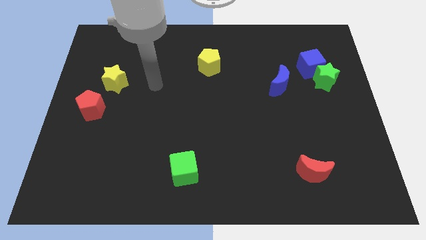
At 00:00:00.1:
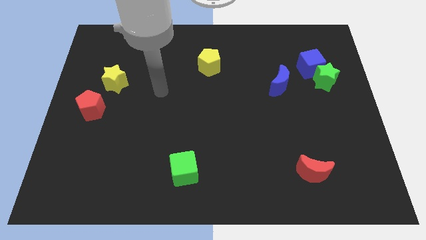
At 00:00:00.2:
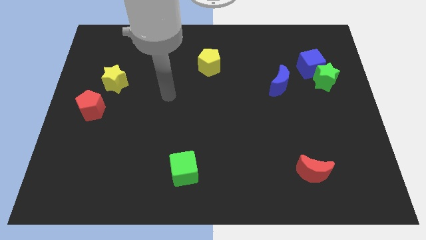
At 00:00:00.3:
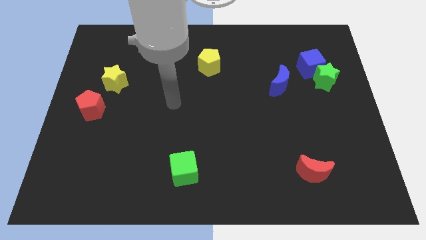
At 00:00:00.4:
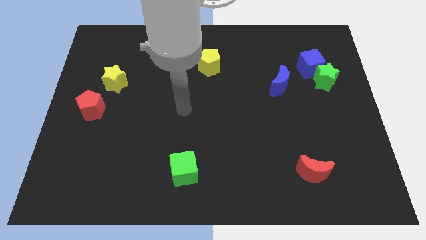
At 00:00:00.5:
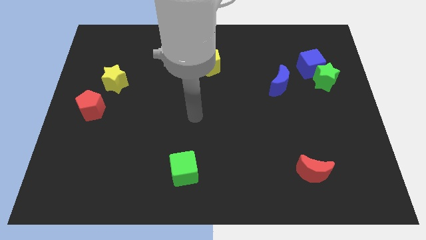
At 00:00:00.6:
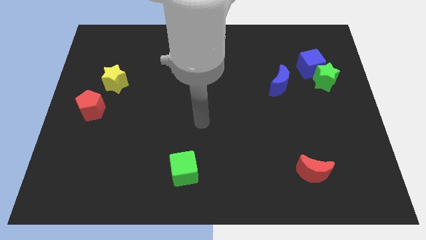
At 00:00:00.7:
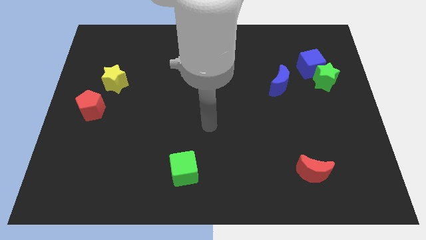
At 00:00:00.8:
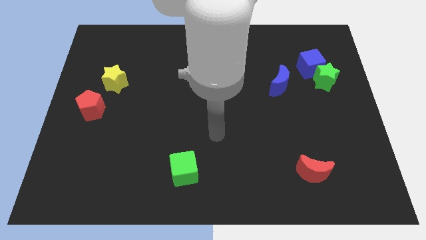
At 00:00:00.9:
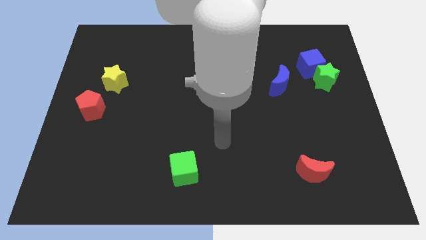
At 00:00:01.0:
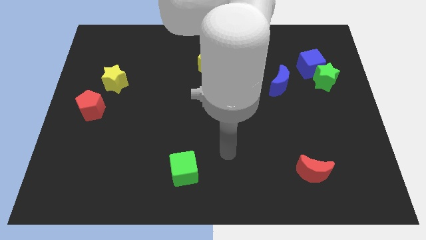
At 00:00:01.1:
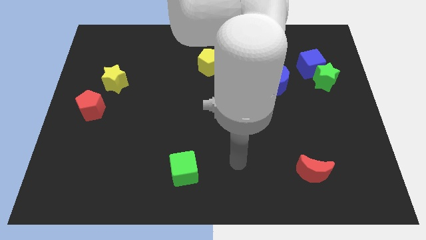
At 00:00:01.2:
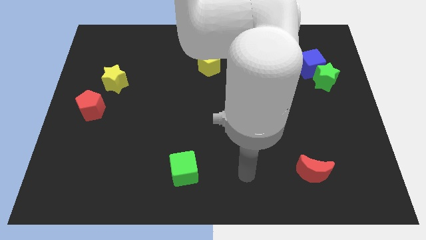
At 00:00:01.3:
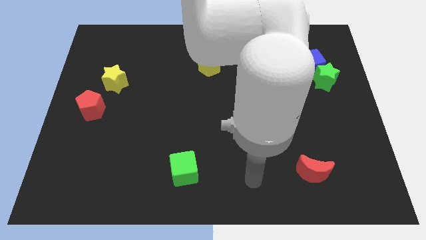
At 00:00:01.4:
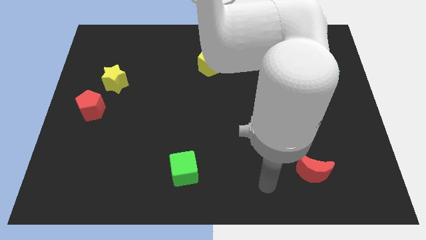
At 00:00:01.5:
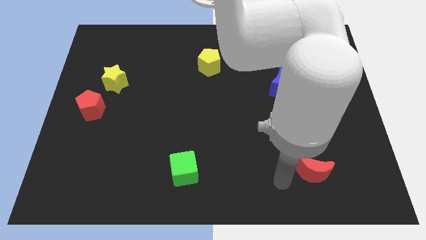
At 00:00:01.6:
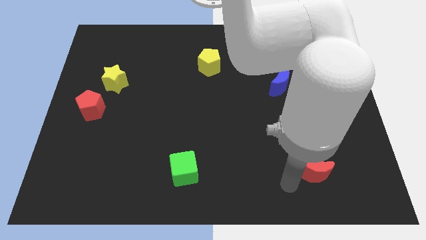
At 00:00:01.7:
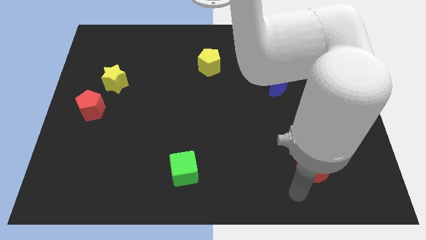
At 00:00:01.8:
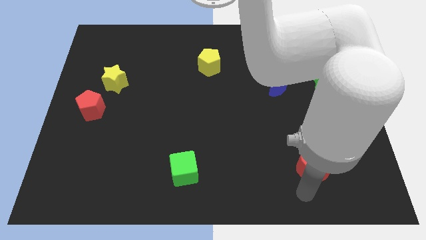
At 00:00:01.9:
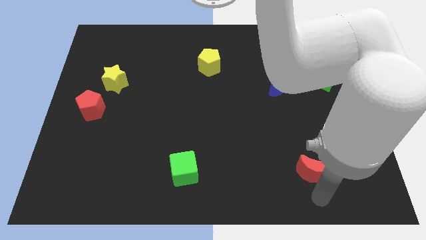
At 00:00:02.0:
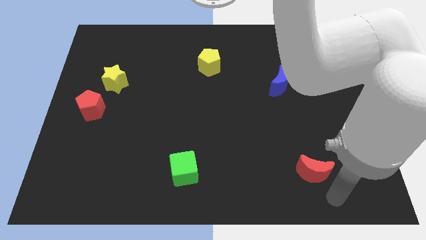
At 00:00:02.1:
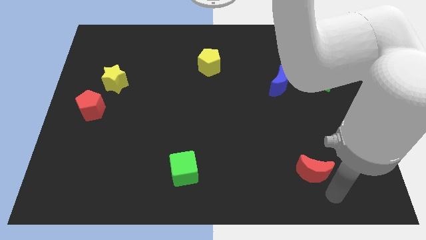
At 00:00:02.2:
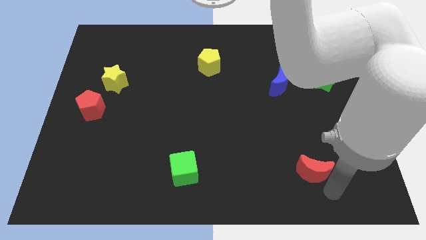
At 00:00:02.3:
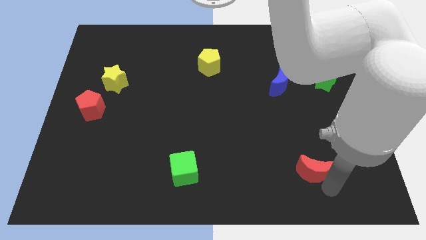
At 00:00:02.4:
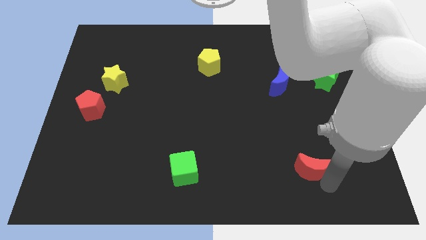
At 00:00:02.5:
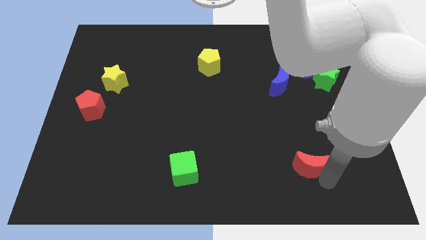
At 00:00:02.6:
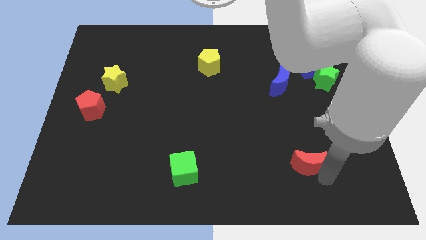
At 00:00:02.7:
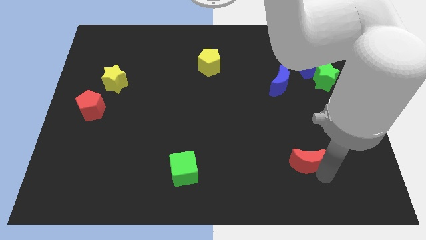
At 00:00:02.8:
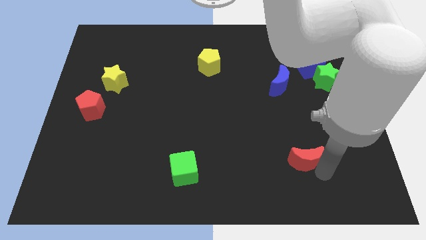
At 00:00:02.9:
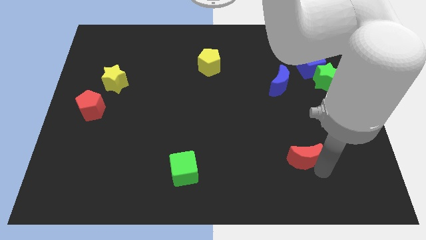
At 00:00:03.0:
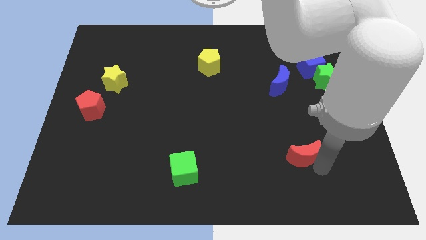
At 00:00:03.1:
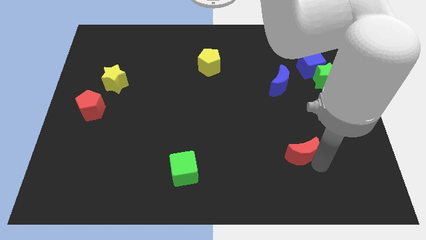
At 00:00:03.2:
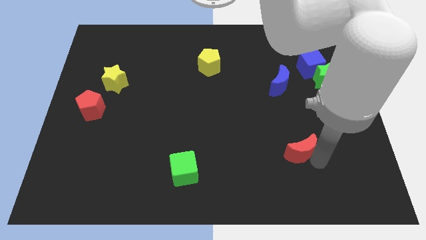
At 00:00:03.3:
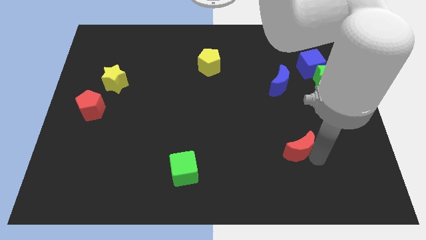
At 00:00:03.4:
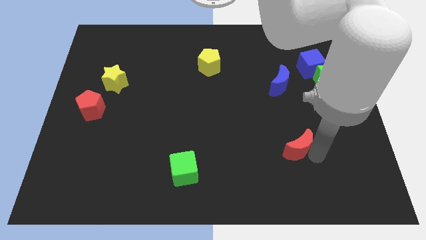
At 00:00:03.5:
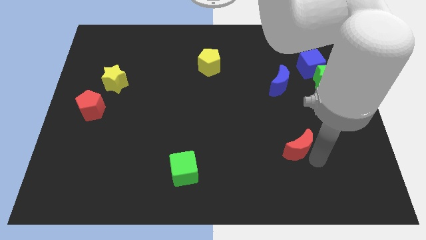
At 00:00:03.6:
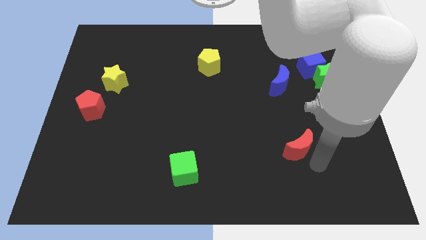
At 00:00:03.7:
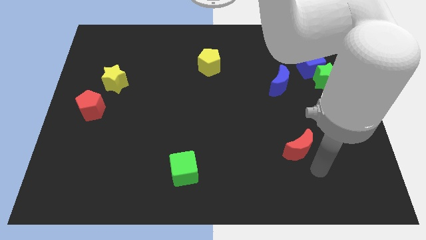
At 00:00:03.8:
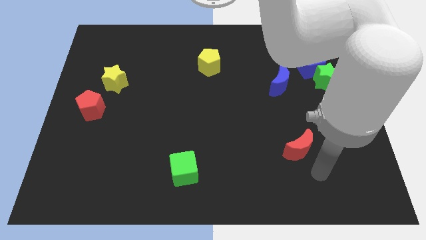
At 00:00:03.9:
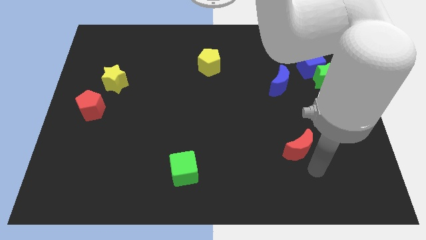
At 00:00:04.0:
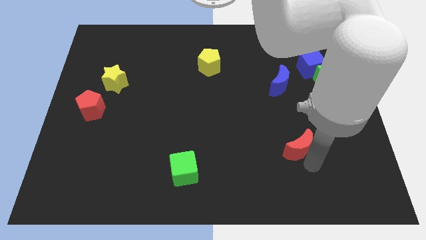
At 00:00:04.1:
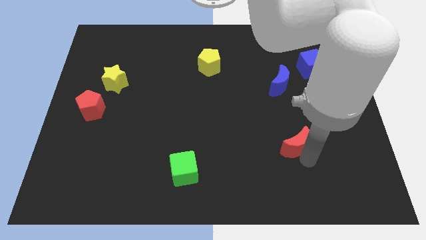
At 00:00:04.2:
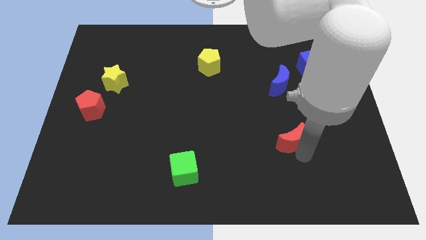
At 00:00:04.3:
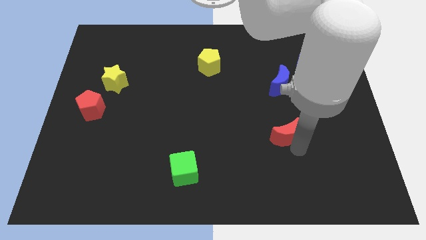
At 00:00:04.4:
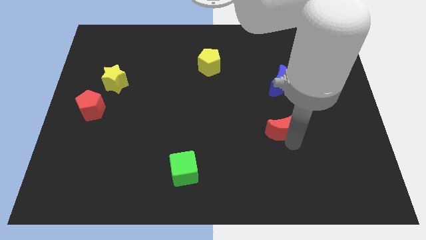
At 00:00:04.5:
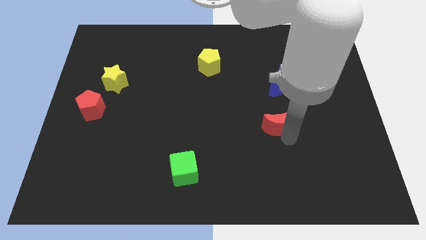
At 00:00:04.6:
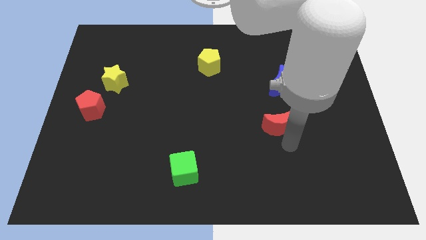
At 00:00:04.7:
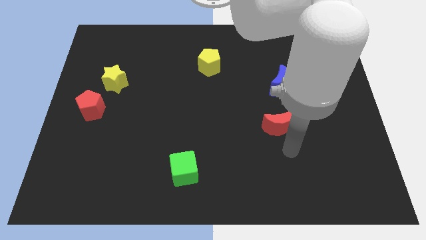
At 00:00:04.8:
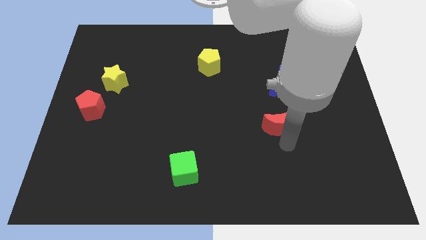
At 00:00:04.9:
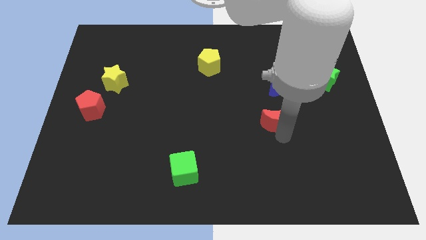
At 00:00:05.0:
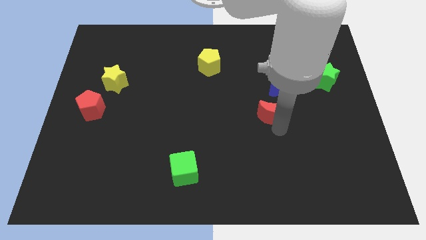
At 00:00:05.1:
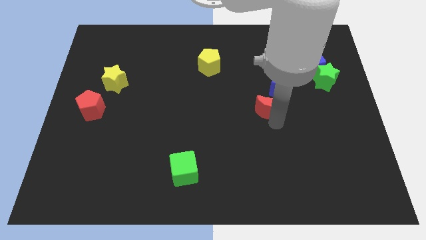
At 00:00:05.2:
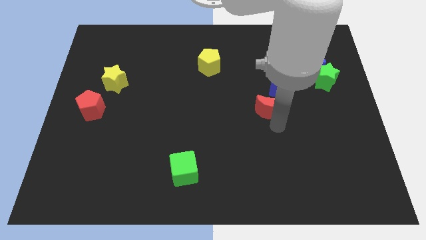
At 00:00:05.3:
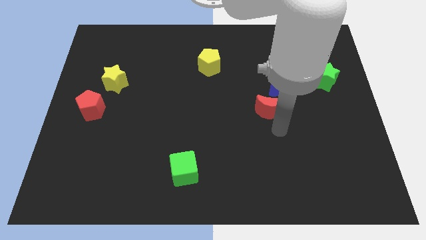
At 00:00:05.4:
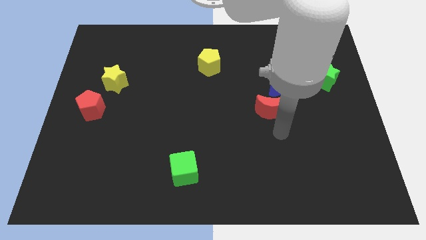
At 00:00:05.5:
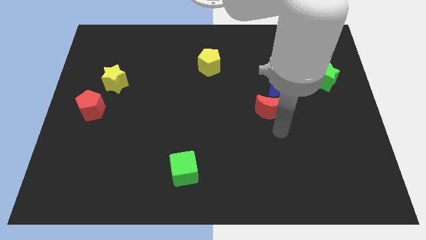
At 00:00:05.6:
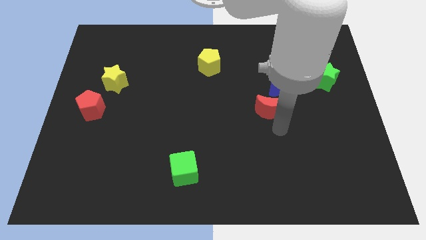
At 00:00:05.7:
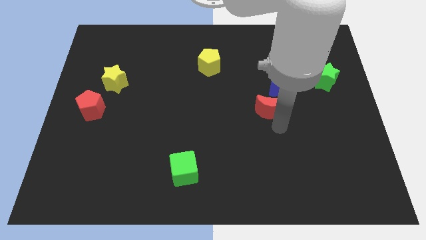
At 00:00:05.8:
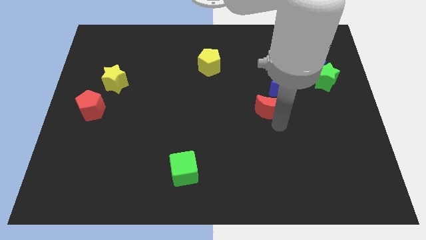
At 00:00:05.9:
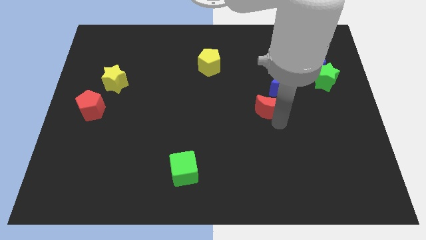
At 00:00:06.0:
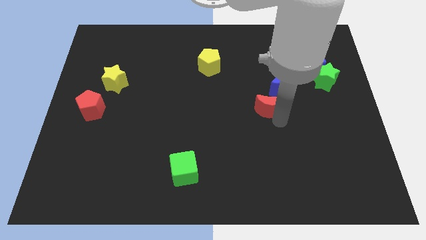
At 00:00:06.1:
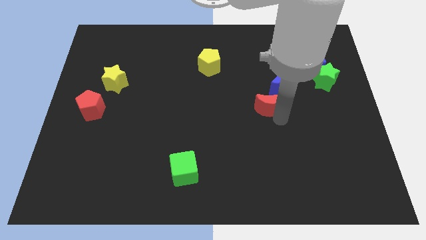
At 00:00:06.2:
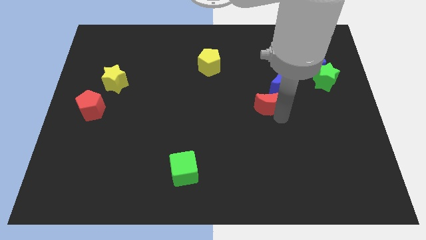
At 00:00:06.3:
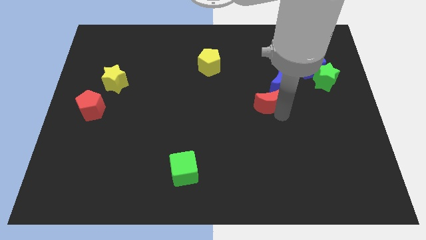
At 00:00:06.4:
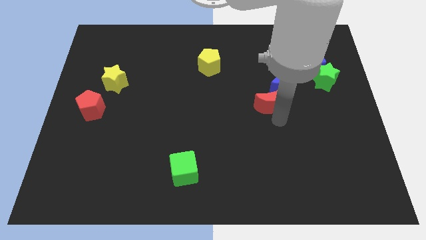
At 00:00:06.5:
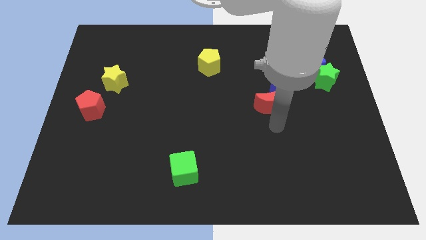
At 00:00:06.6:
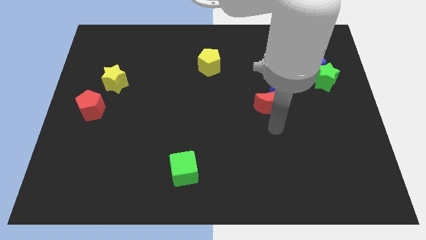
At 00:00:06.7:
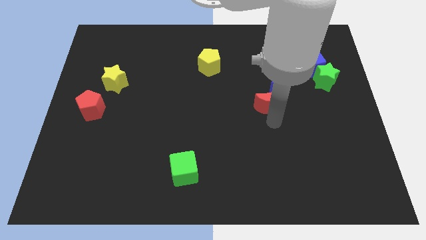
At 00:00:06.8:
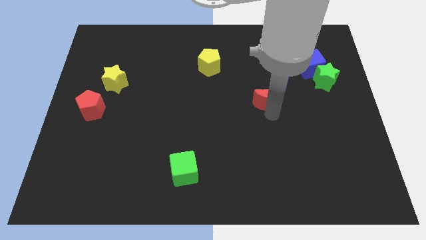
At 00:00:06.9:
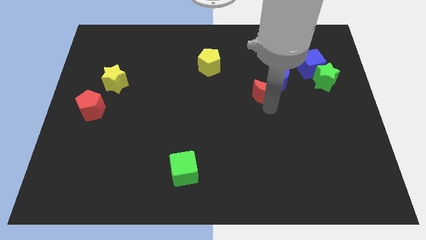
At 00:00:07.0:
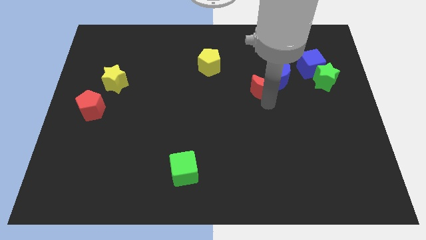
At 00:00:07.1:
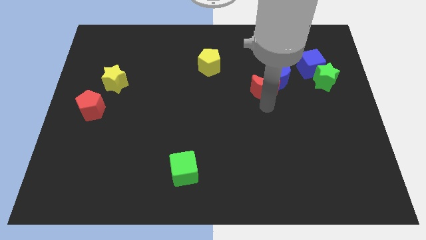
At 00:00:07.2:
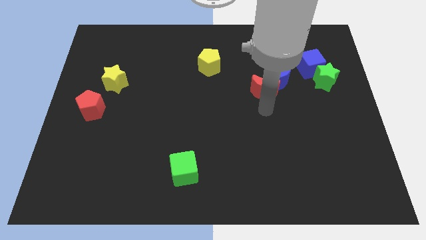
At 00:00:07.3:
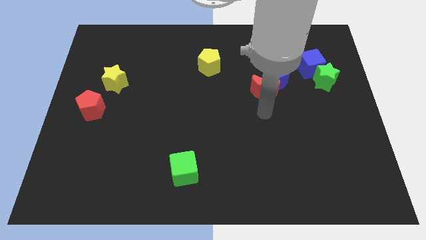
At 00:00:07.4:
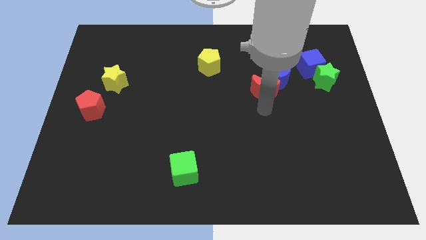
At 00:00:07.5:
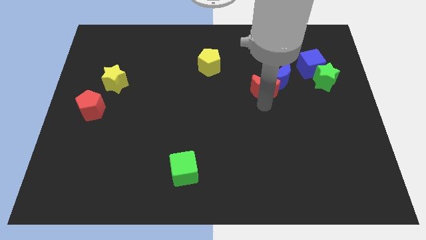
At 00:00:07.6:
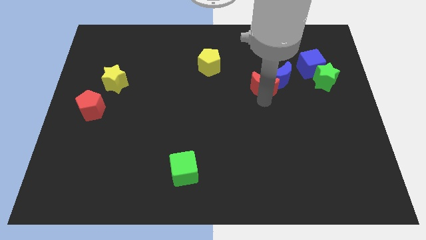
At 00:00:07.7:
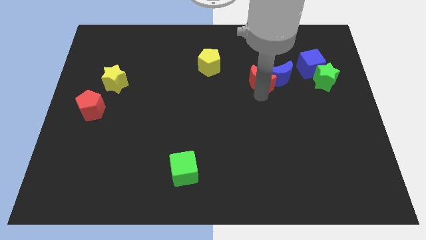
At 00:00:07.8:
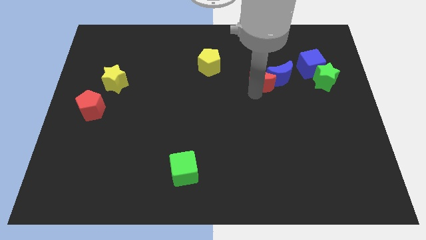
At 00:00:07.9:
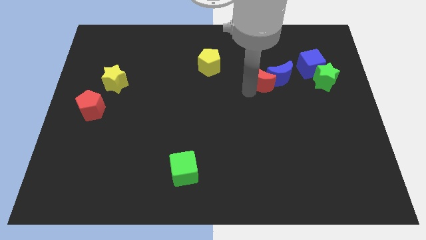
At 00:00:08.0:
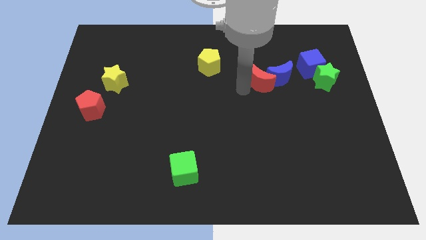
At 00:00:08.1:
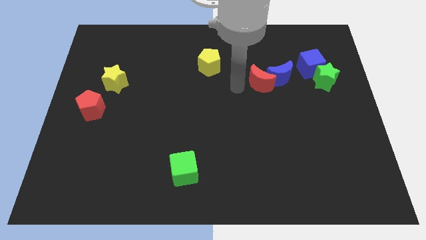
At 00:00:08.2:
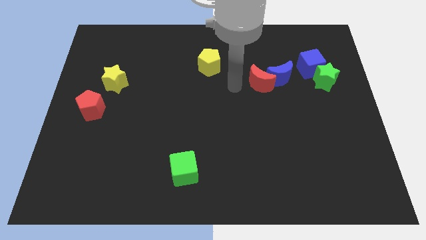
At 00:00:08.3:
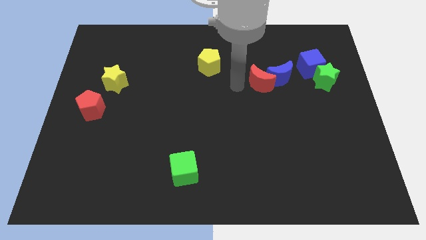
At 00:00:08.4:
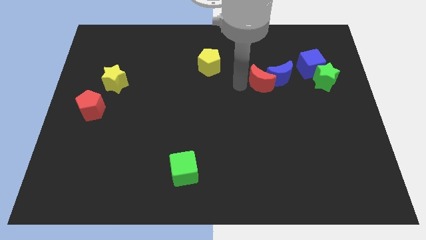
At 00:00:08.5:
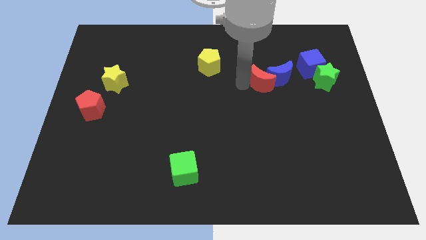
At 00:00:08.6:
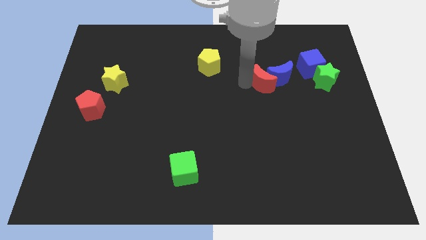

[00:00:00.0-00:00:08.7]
move the red moon to the left side of the green star
